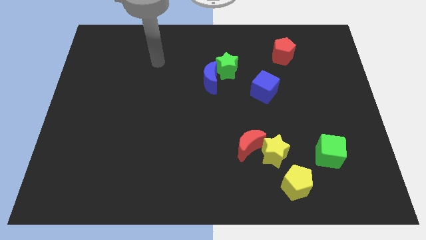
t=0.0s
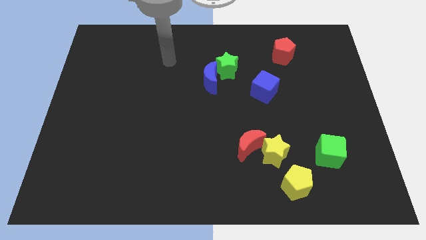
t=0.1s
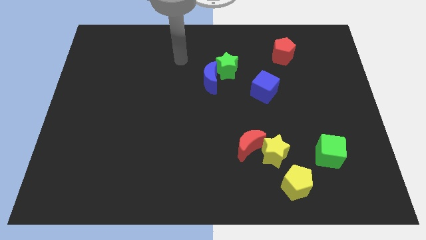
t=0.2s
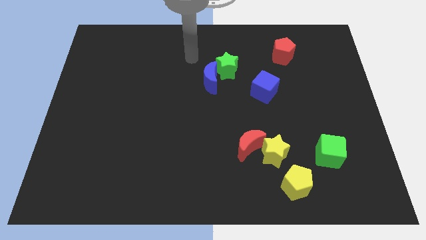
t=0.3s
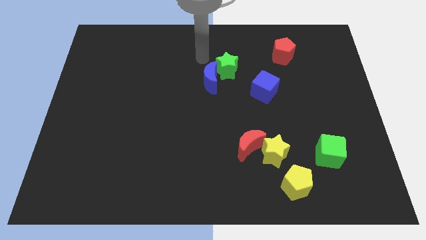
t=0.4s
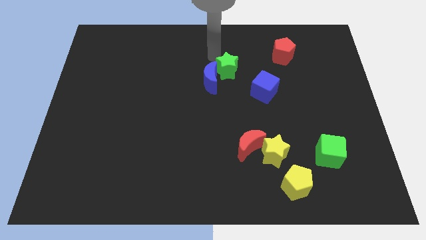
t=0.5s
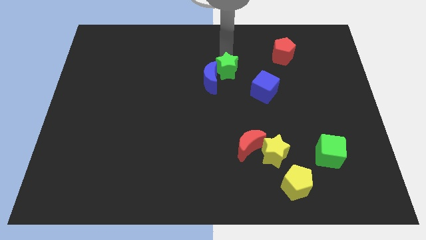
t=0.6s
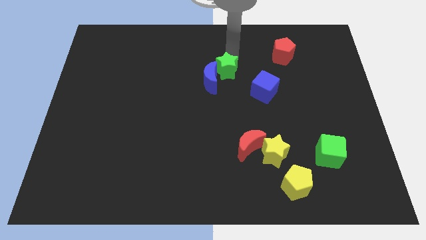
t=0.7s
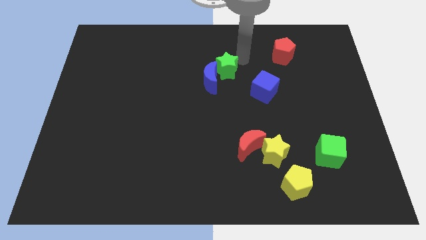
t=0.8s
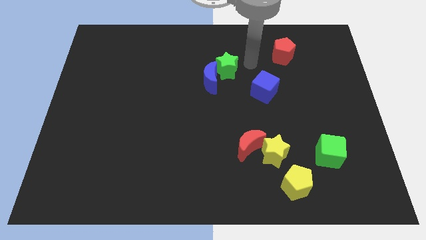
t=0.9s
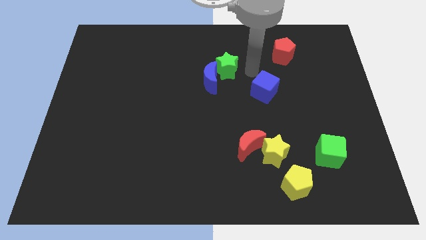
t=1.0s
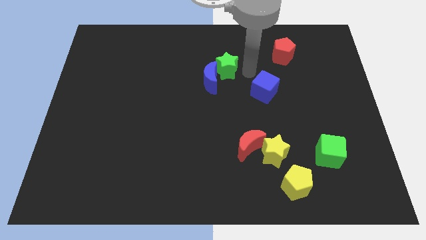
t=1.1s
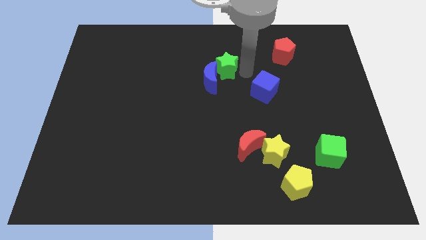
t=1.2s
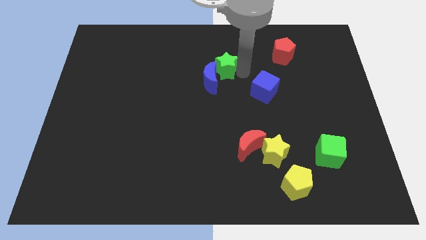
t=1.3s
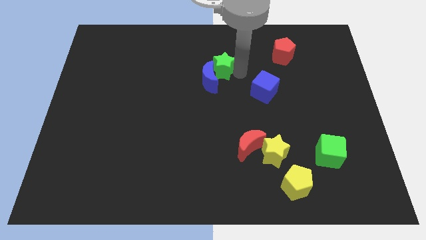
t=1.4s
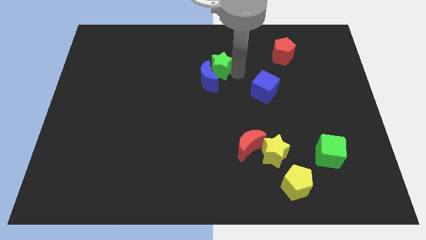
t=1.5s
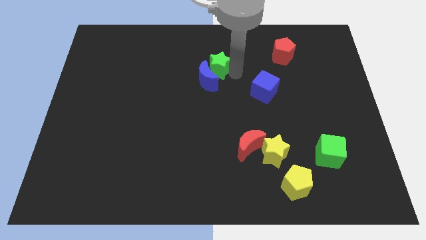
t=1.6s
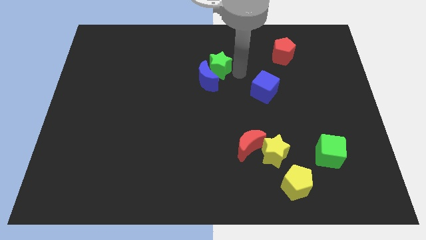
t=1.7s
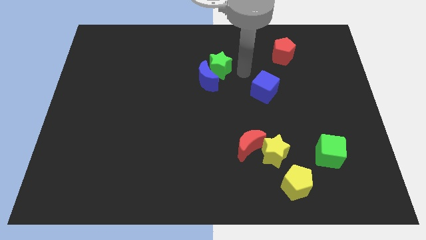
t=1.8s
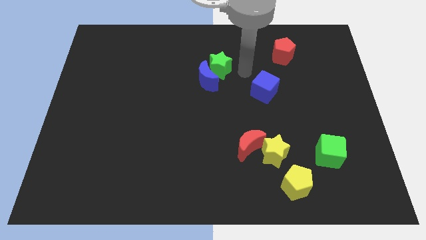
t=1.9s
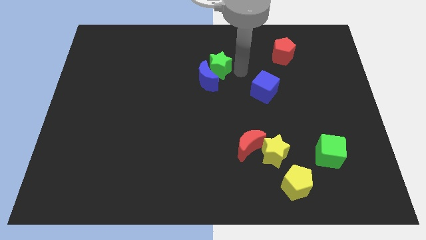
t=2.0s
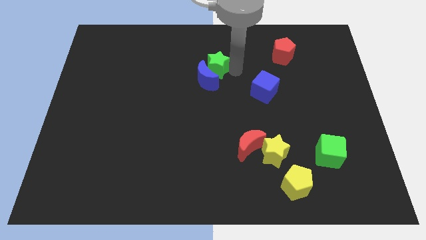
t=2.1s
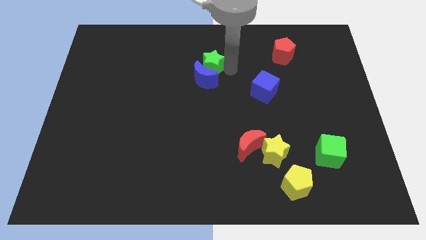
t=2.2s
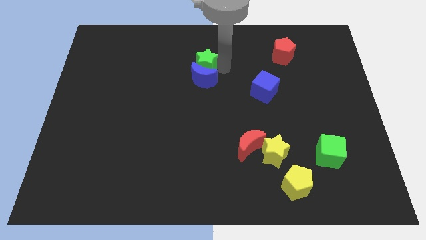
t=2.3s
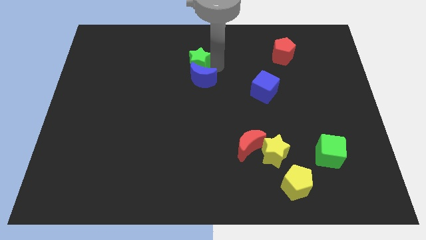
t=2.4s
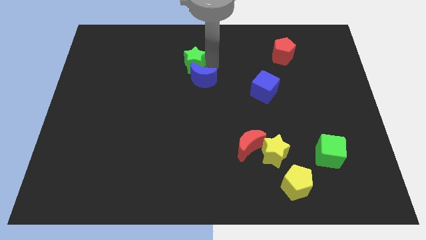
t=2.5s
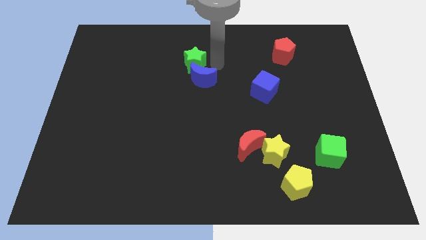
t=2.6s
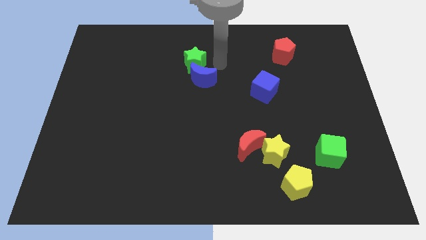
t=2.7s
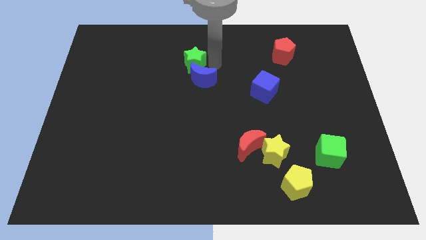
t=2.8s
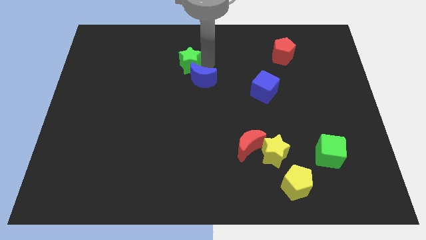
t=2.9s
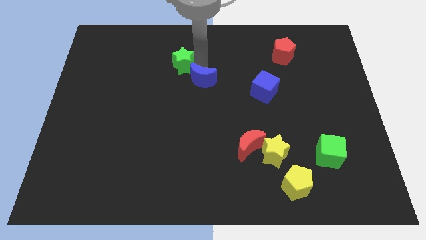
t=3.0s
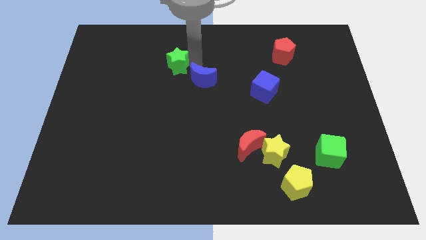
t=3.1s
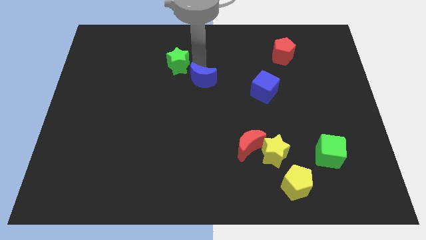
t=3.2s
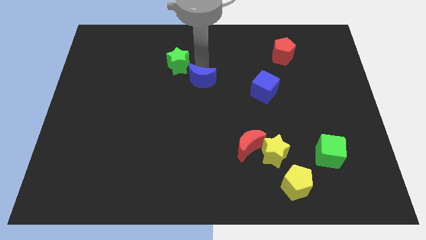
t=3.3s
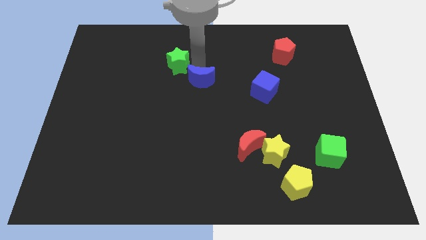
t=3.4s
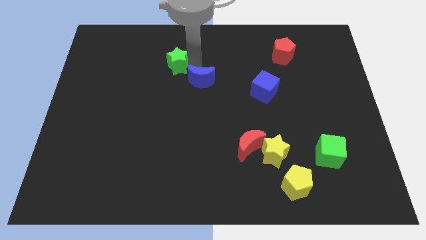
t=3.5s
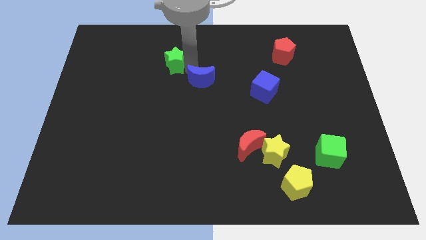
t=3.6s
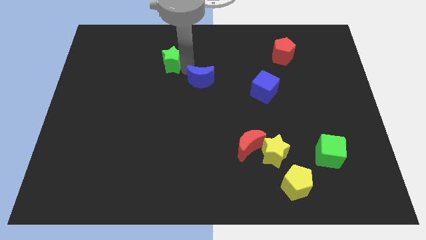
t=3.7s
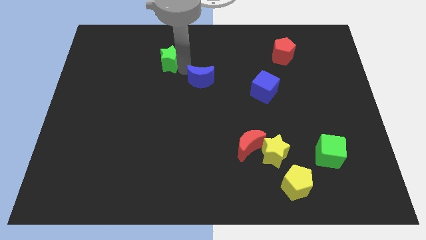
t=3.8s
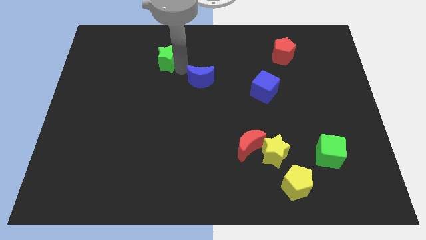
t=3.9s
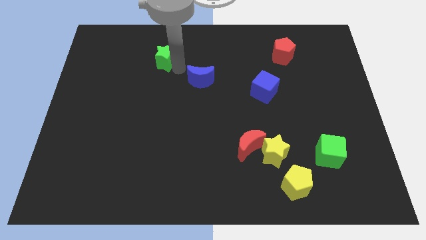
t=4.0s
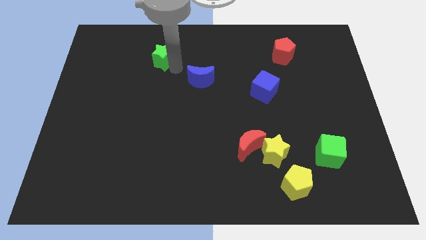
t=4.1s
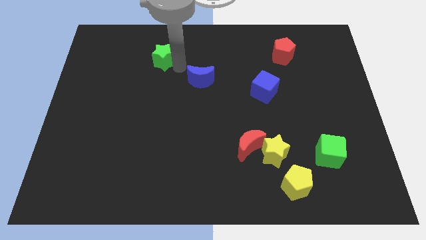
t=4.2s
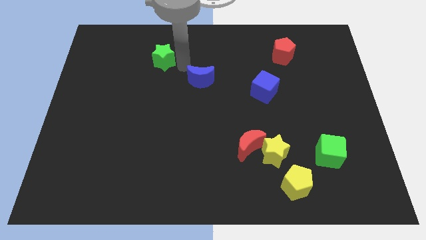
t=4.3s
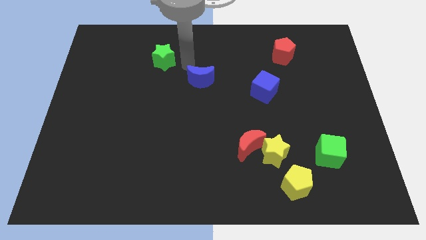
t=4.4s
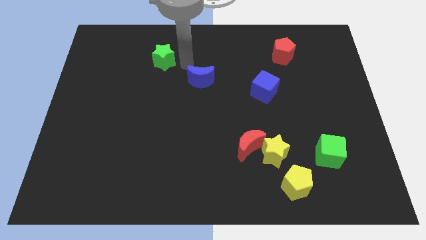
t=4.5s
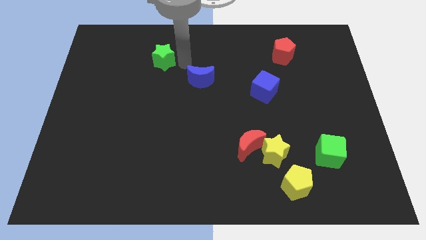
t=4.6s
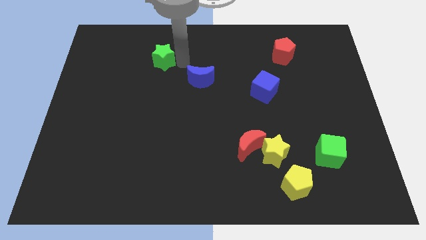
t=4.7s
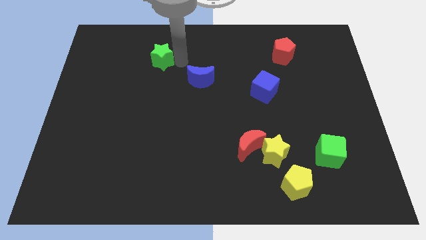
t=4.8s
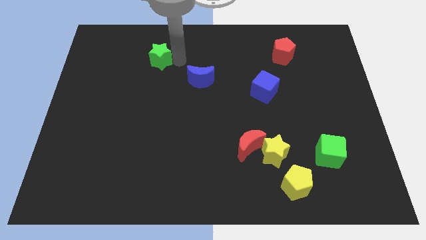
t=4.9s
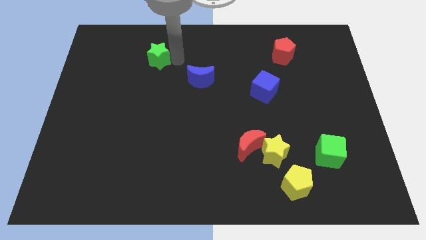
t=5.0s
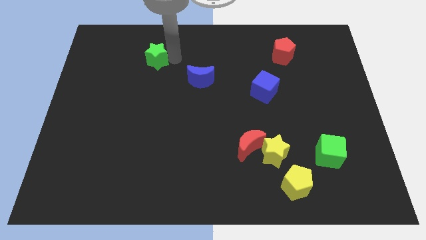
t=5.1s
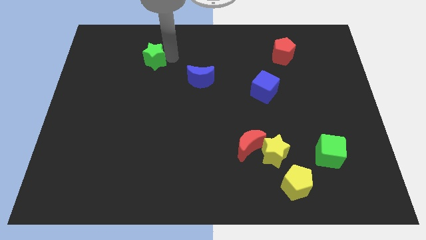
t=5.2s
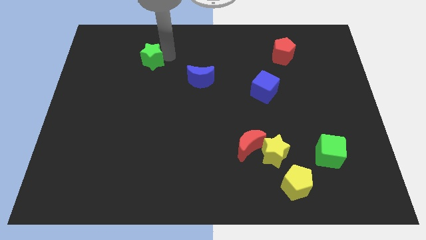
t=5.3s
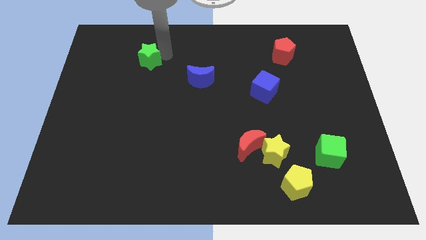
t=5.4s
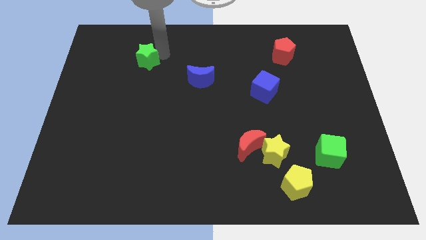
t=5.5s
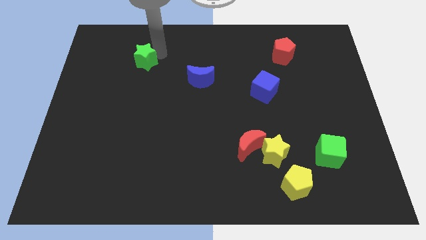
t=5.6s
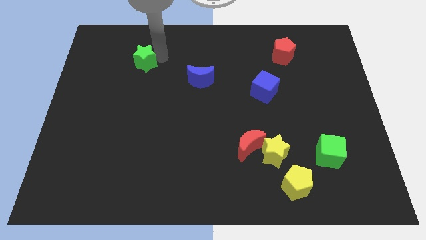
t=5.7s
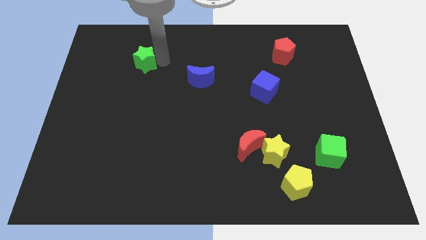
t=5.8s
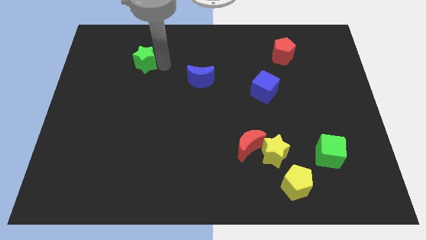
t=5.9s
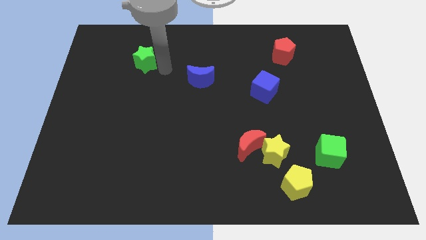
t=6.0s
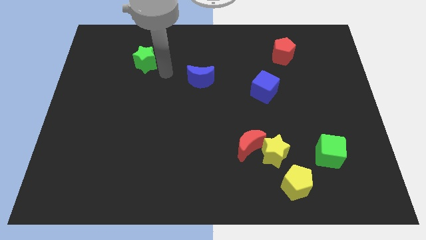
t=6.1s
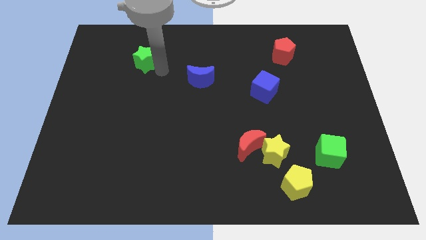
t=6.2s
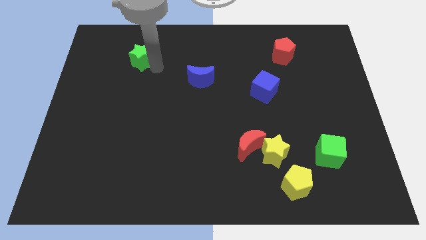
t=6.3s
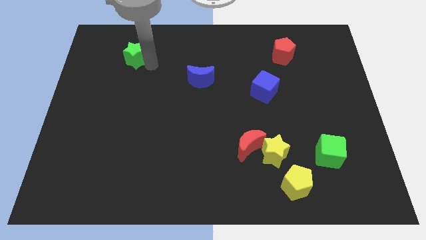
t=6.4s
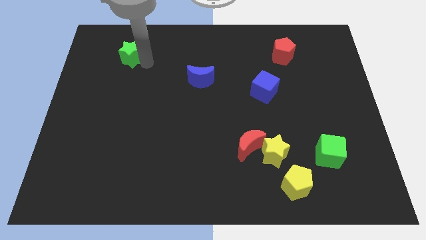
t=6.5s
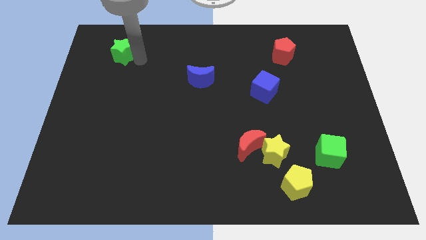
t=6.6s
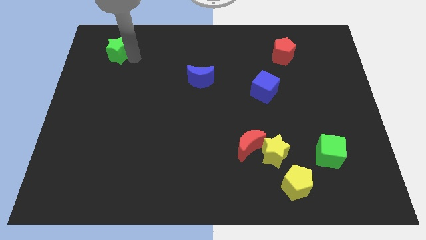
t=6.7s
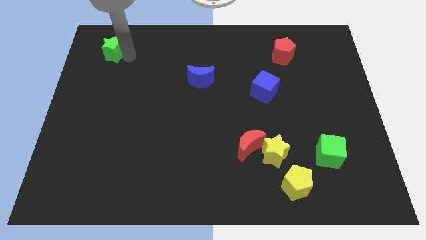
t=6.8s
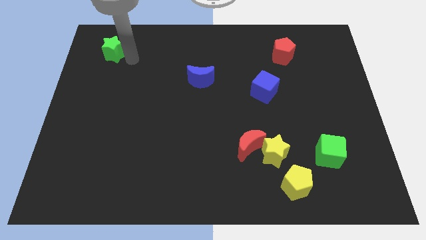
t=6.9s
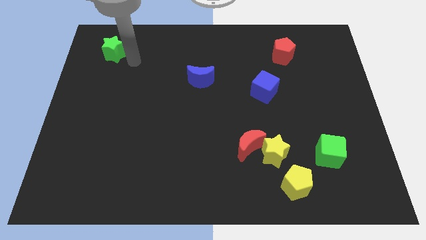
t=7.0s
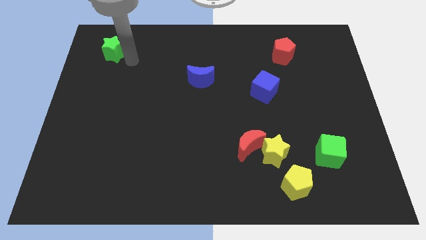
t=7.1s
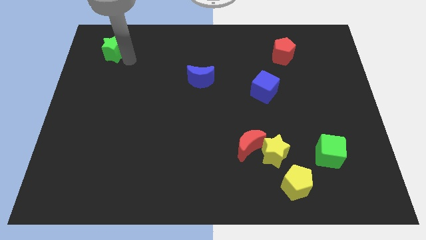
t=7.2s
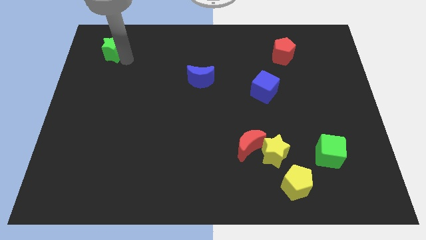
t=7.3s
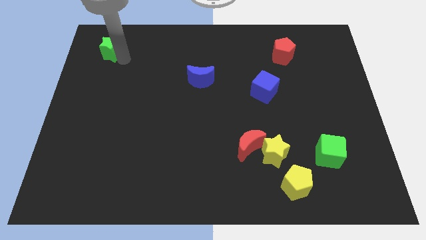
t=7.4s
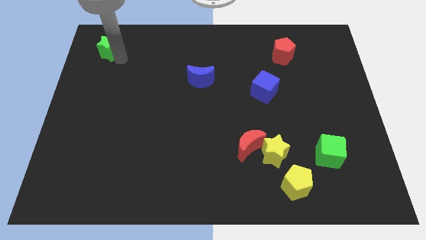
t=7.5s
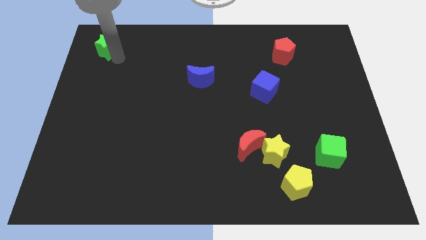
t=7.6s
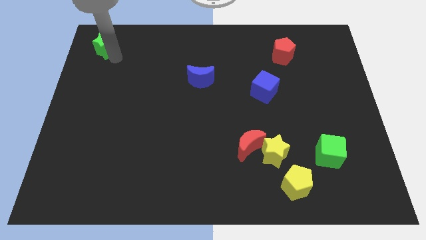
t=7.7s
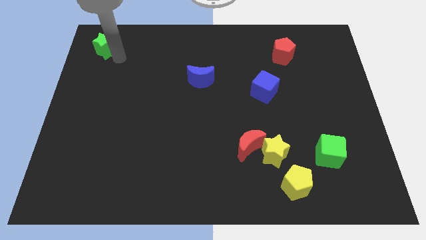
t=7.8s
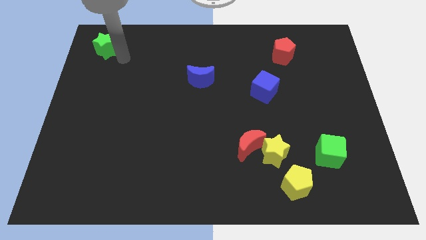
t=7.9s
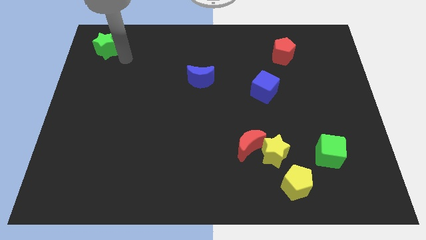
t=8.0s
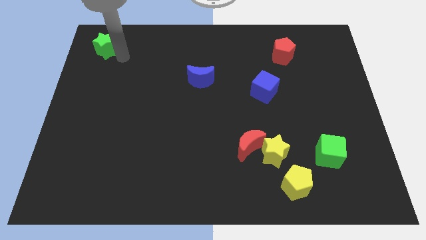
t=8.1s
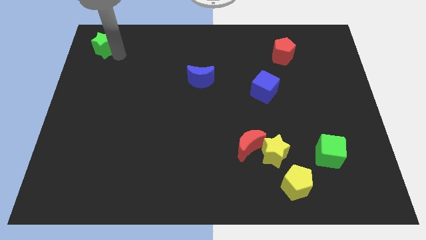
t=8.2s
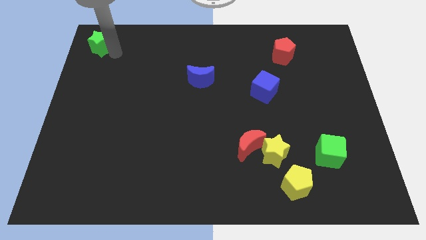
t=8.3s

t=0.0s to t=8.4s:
slide the green star to the upper left corner
